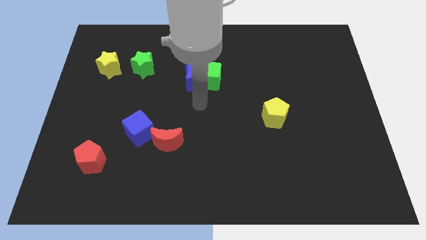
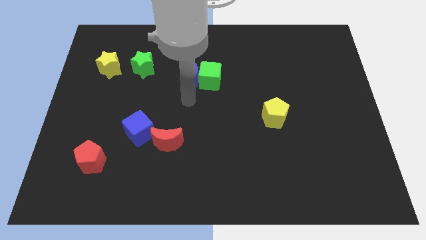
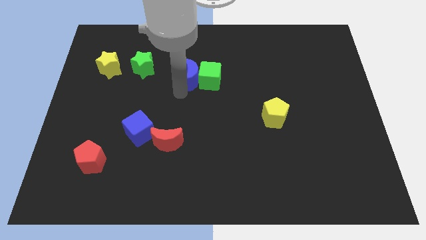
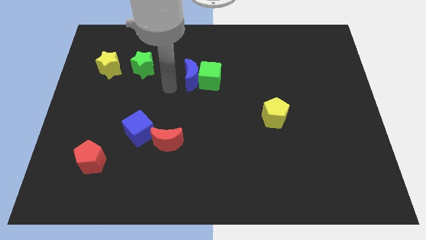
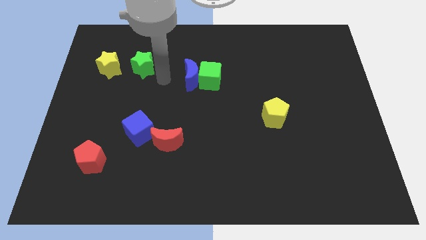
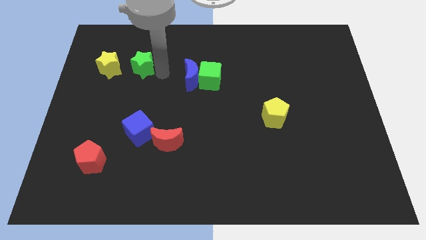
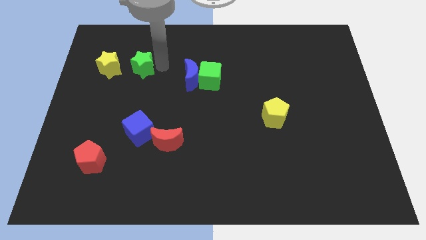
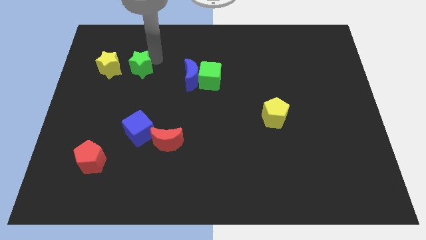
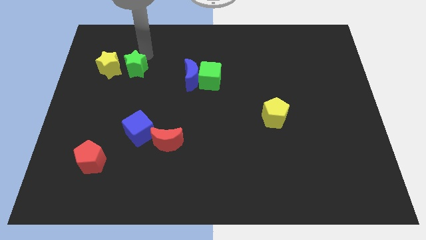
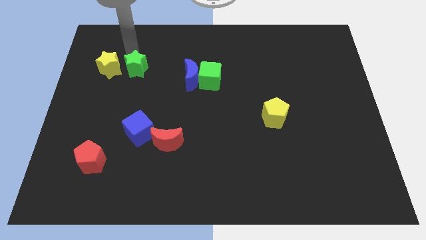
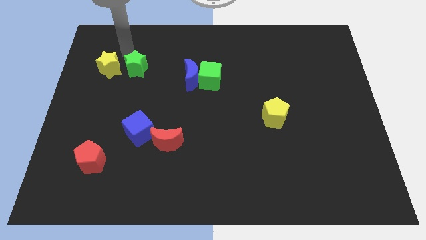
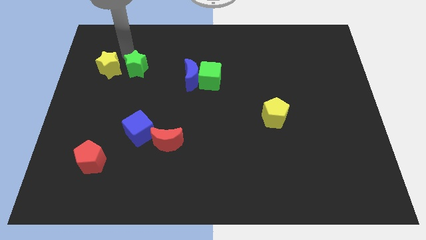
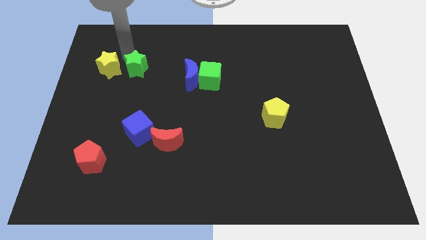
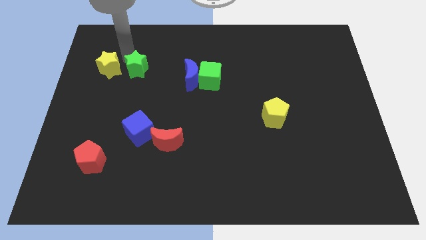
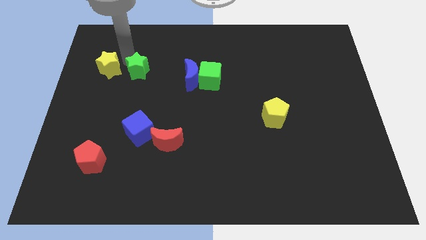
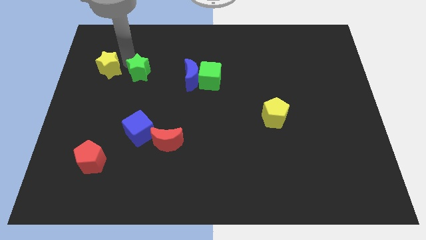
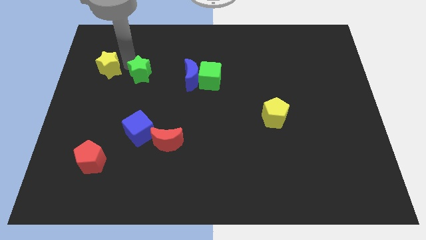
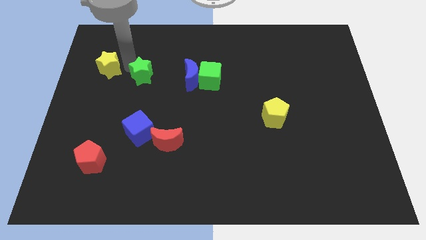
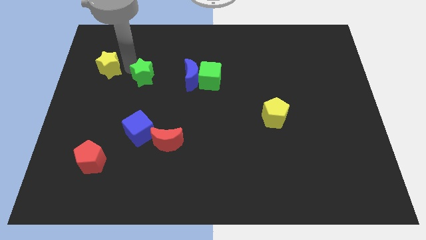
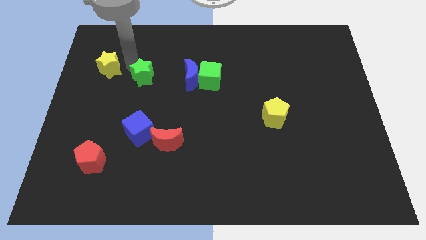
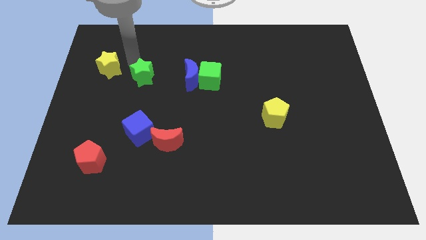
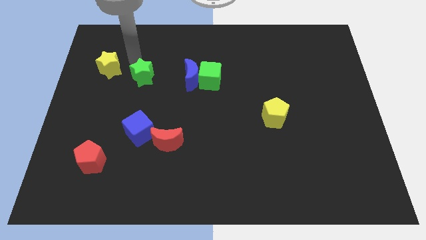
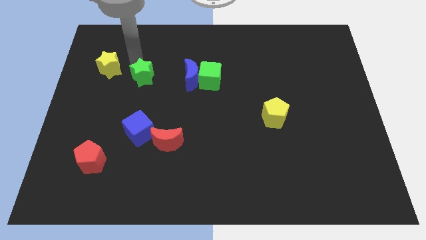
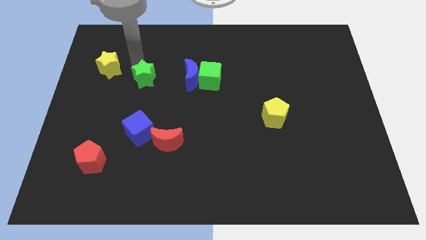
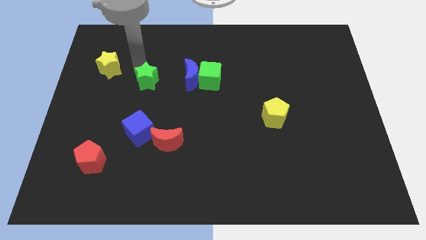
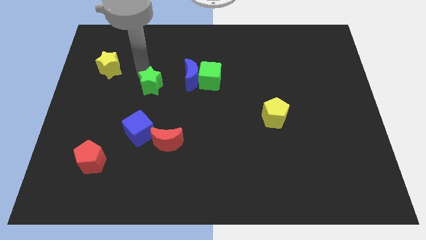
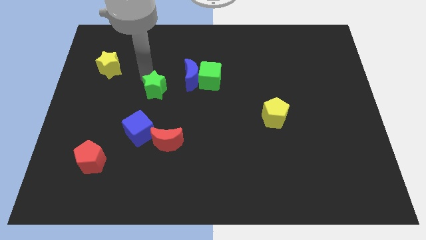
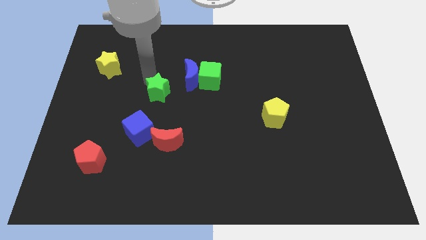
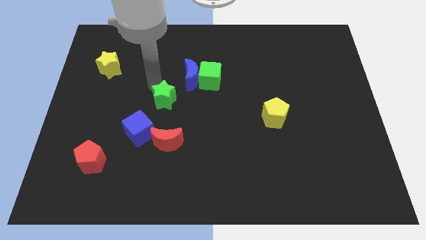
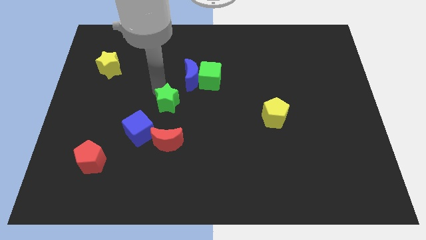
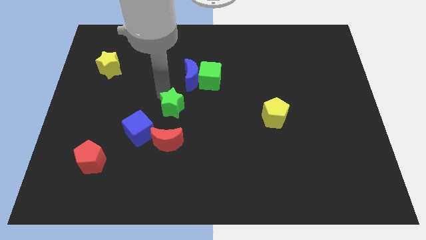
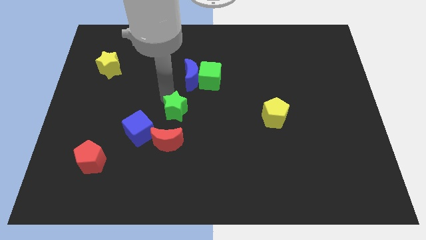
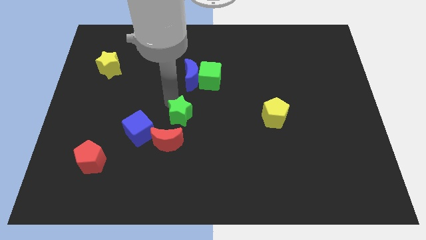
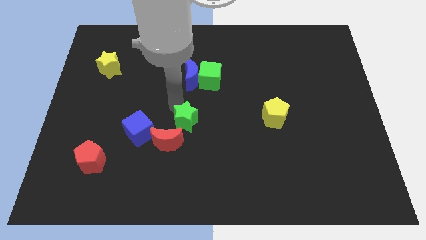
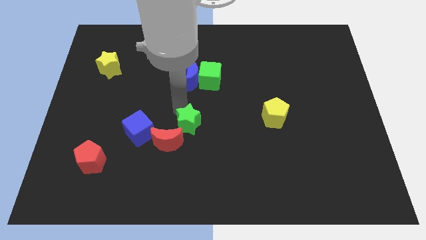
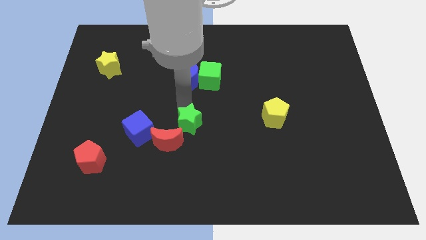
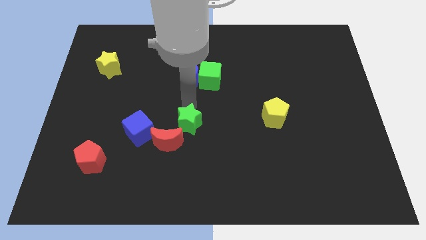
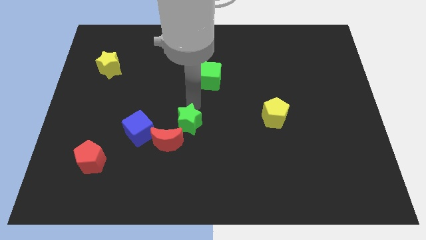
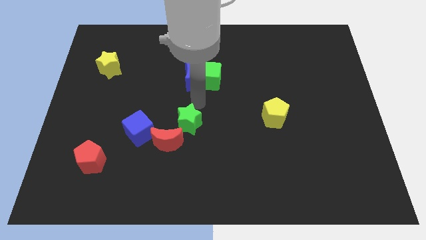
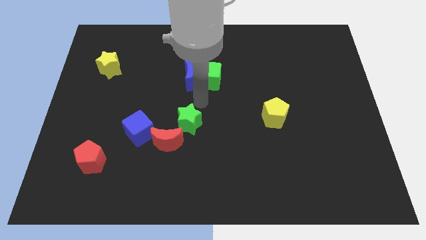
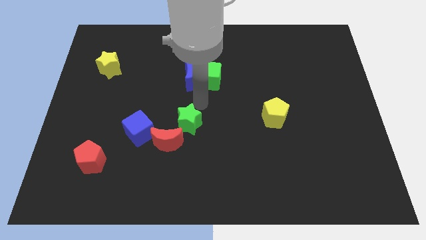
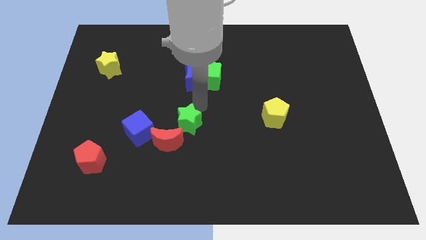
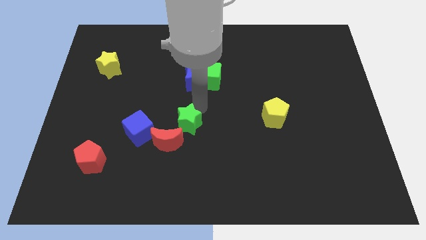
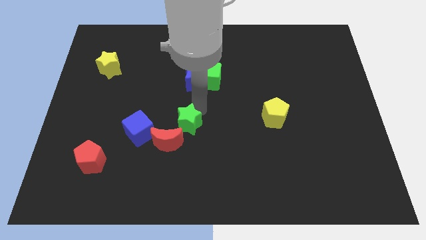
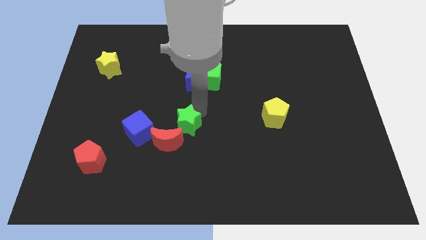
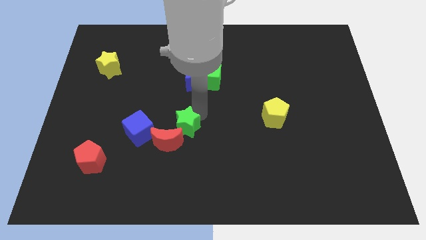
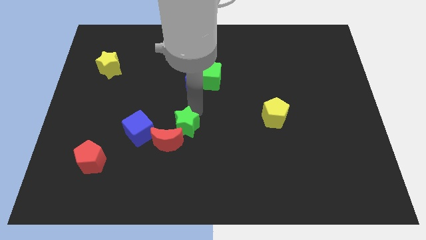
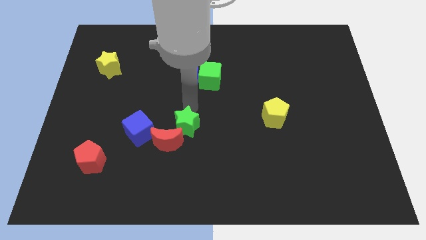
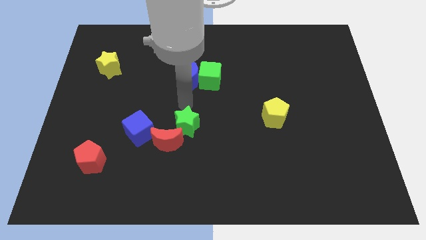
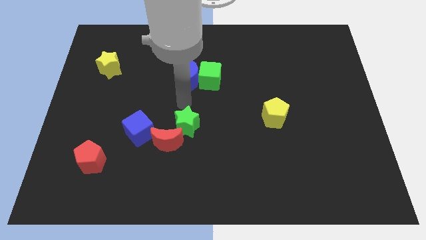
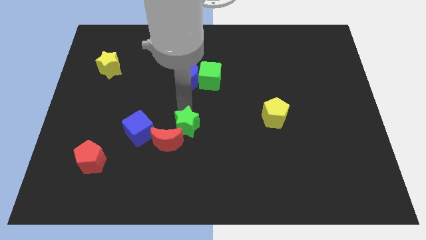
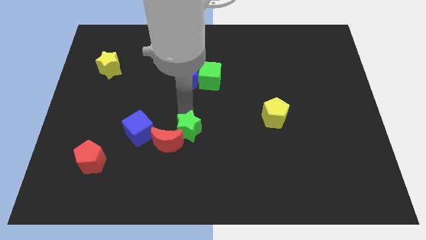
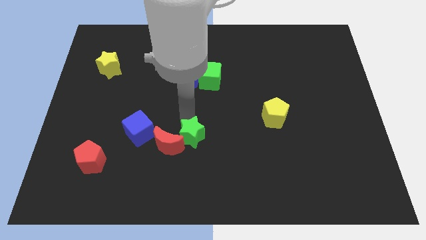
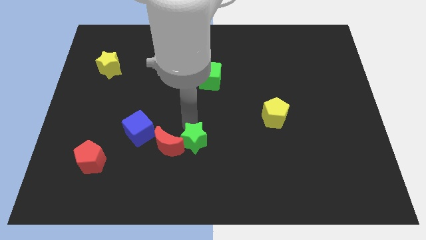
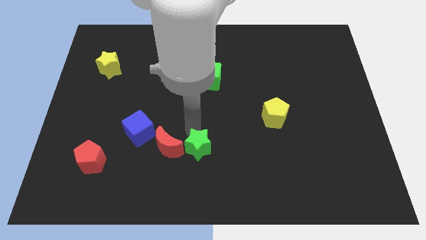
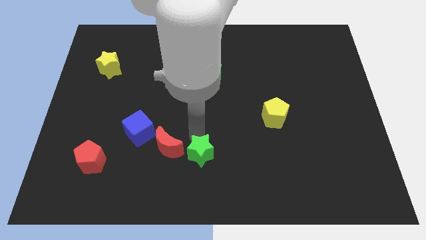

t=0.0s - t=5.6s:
push the green star to the bottom side

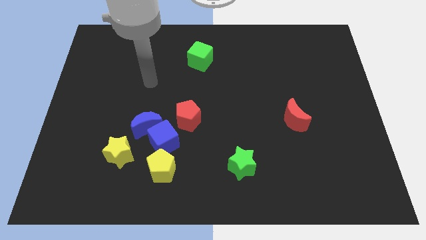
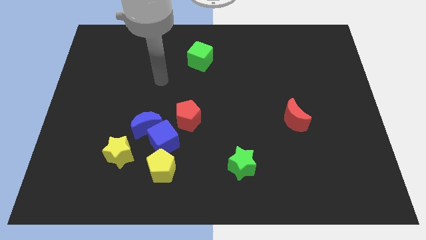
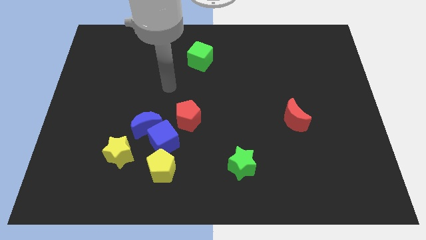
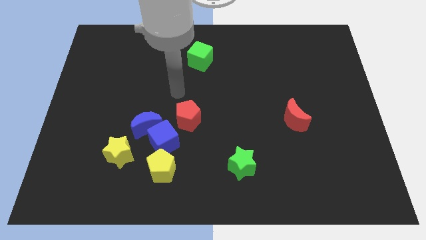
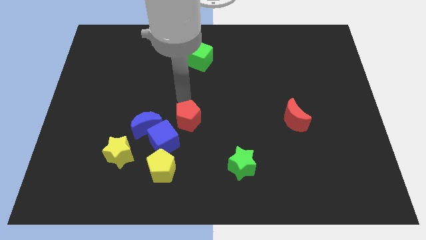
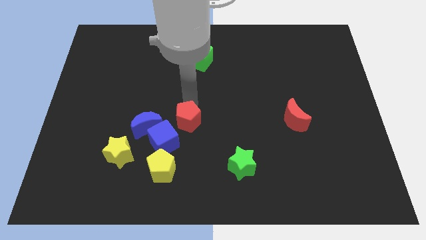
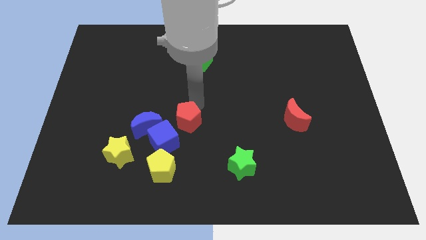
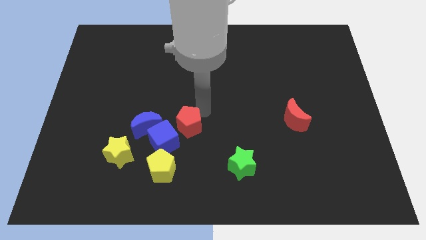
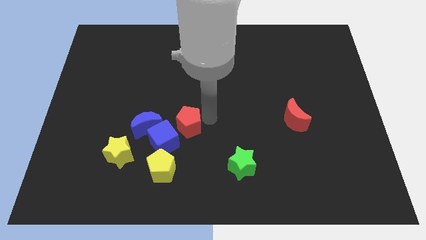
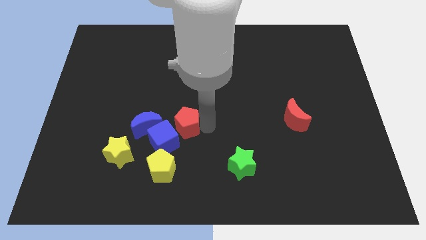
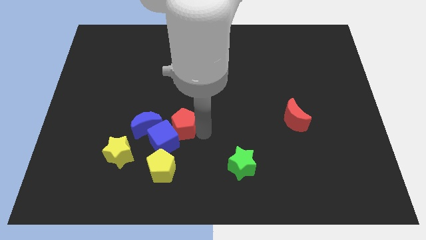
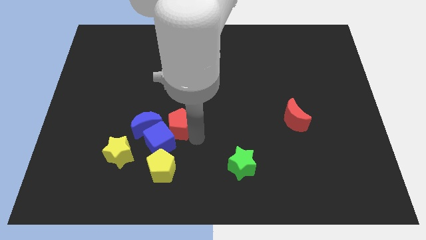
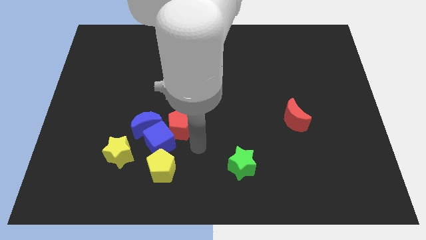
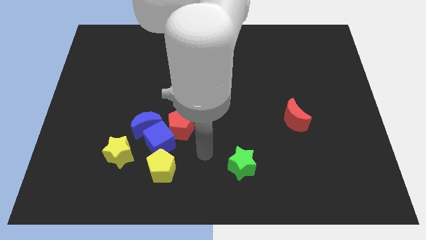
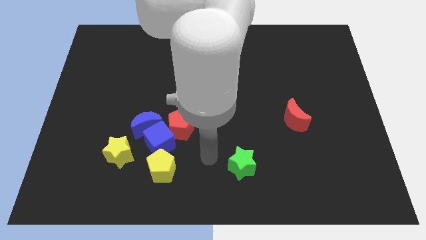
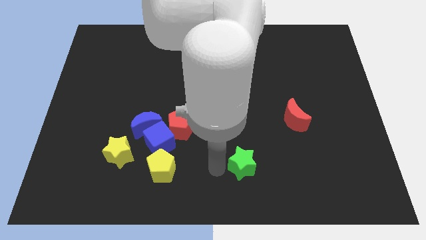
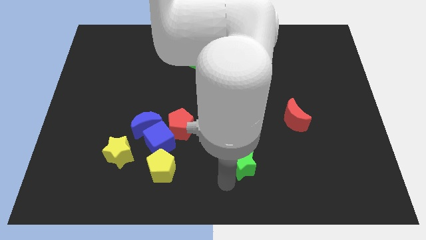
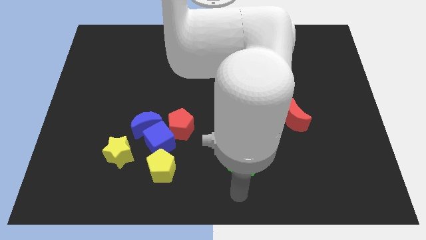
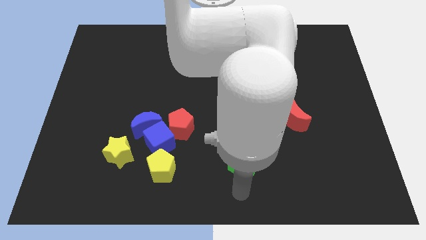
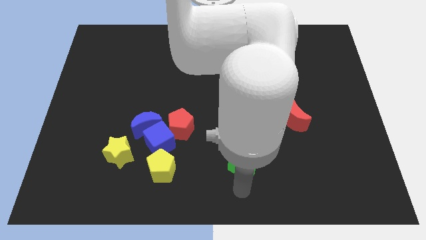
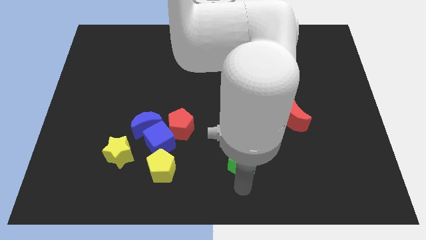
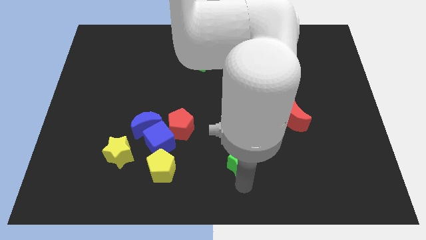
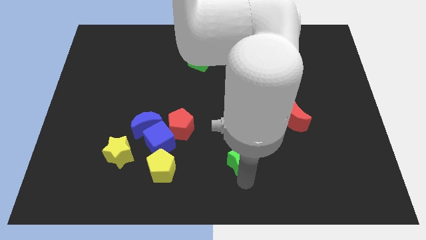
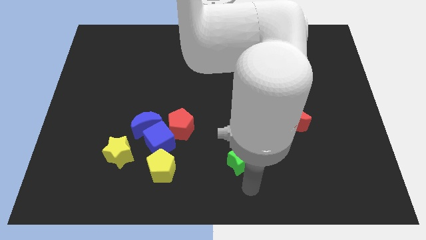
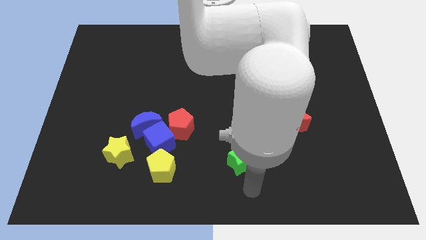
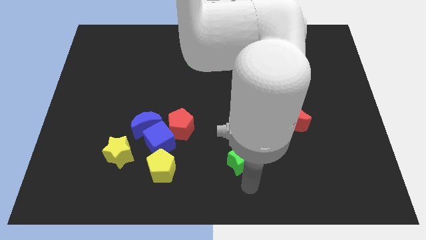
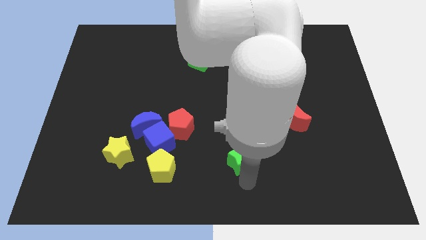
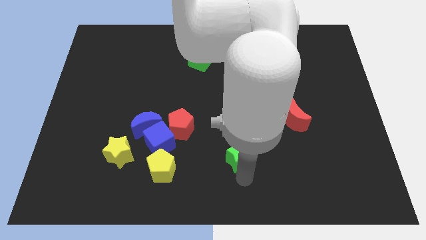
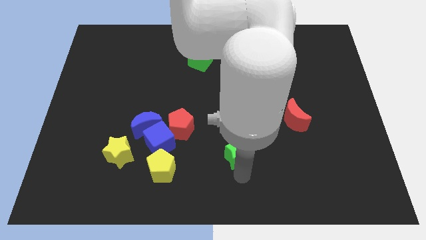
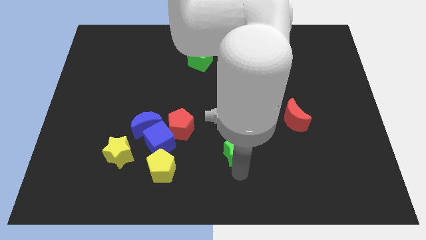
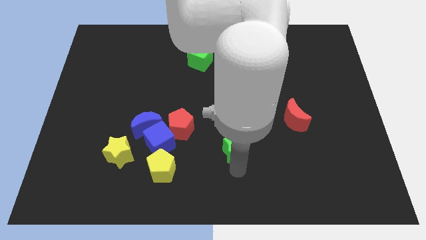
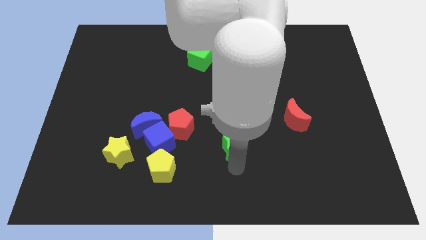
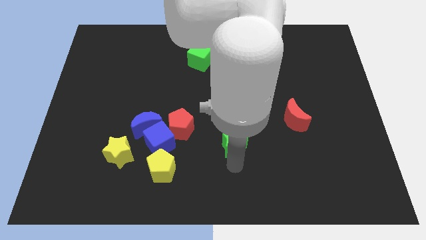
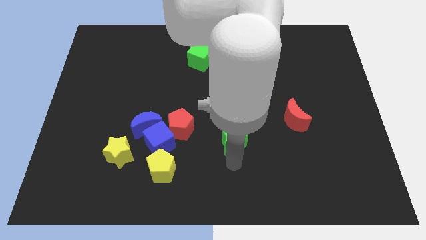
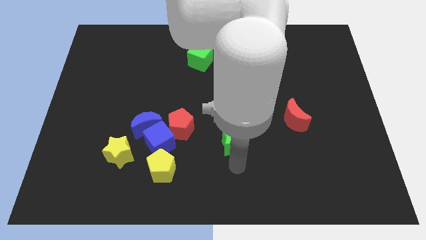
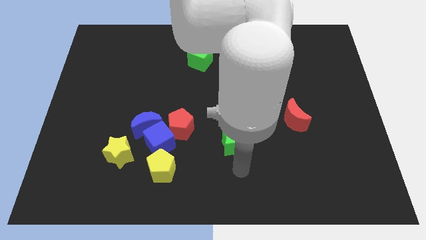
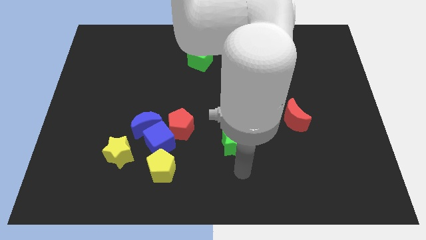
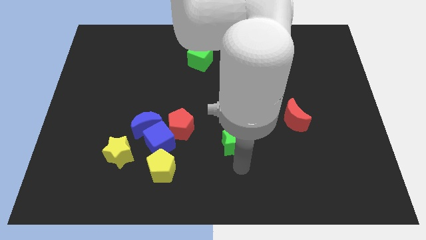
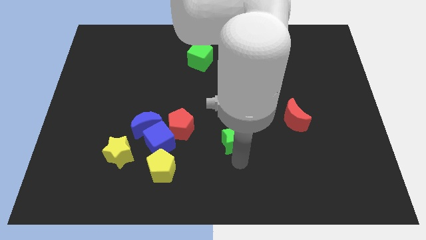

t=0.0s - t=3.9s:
put the green star to the middle of the board
